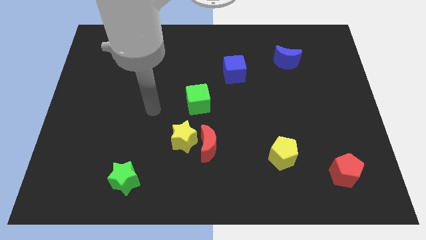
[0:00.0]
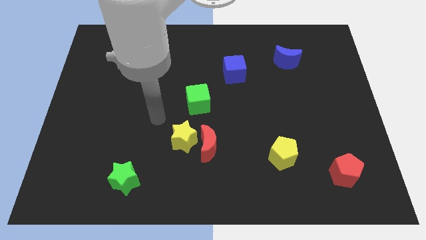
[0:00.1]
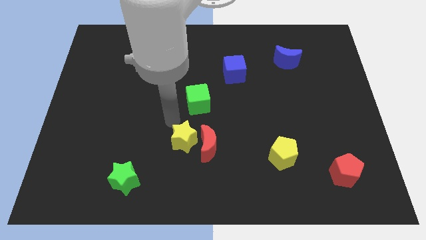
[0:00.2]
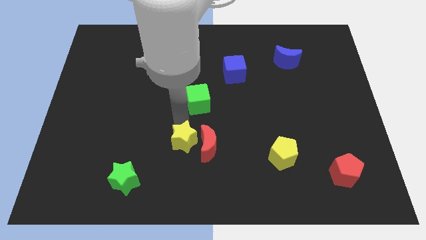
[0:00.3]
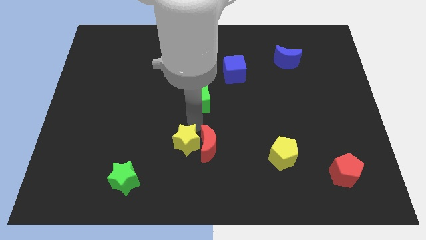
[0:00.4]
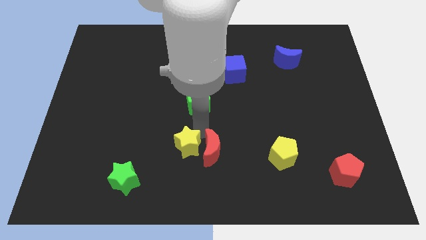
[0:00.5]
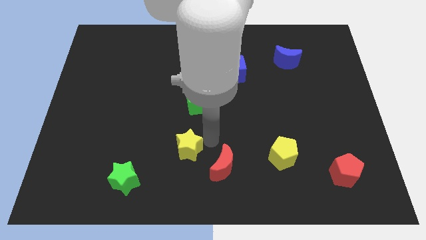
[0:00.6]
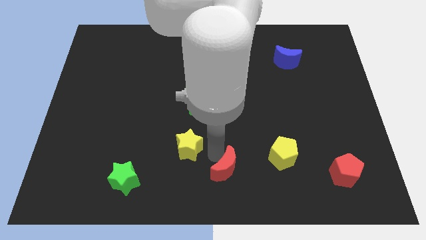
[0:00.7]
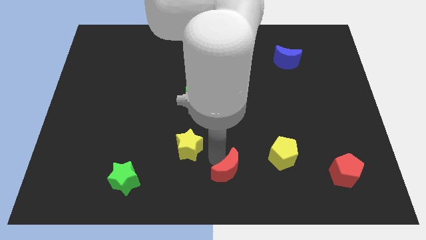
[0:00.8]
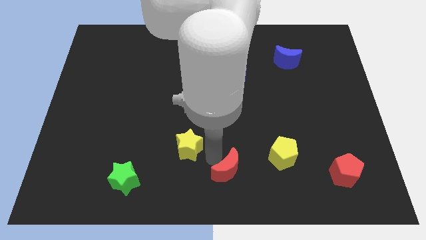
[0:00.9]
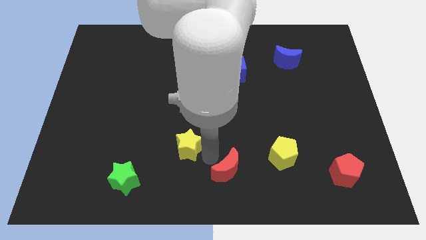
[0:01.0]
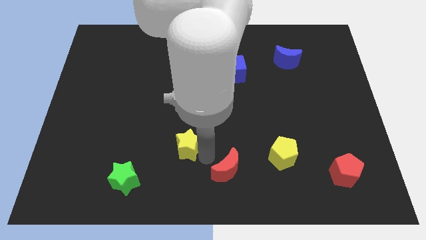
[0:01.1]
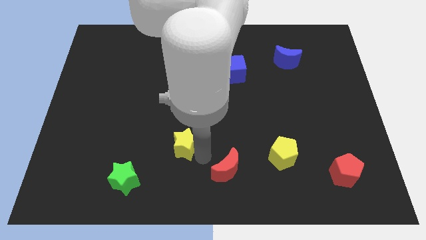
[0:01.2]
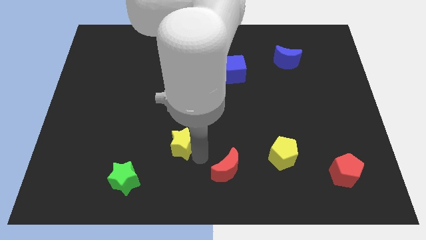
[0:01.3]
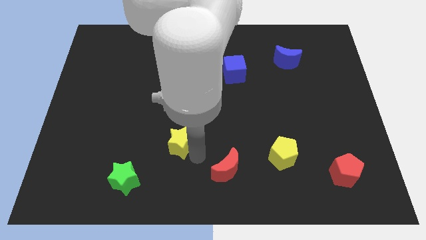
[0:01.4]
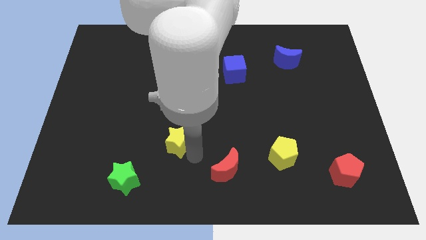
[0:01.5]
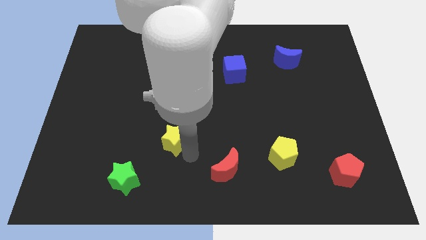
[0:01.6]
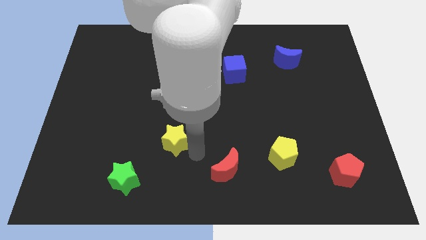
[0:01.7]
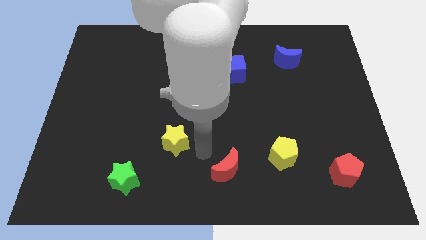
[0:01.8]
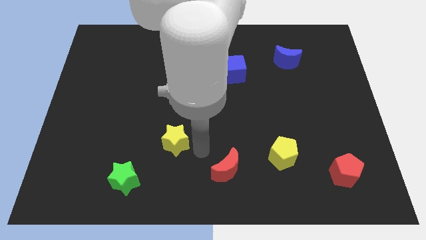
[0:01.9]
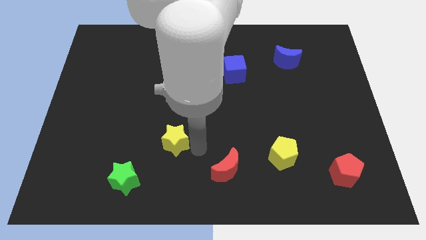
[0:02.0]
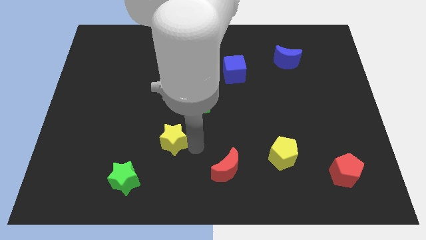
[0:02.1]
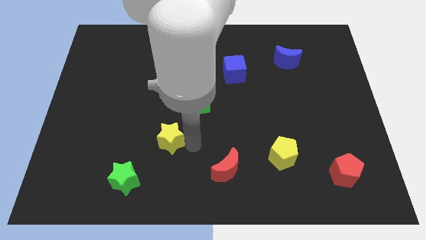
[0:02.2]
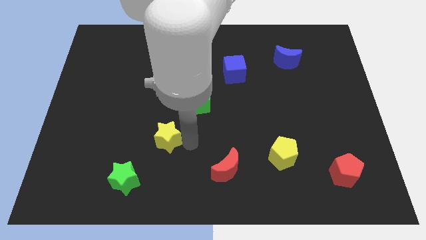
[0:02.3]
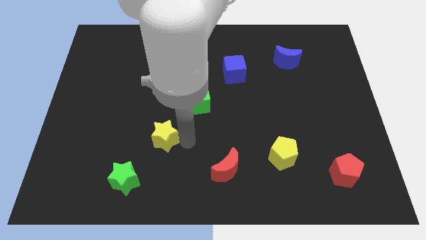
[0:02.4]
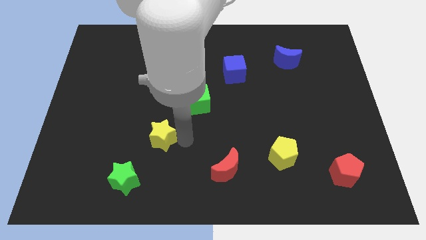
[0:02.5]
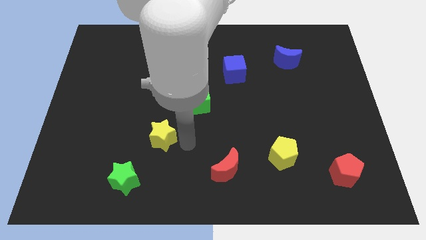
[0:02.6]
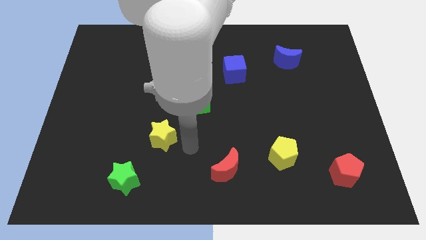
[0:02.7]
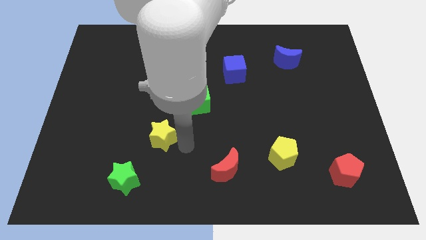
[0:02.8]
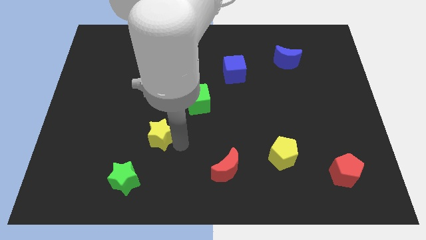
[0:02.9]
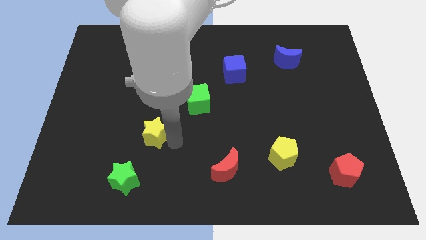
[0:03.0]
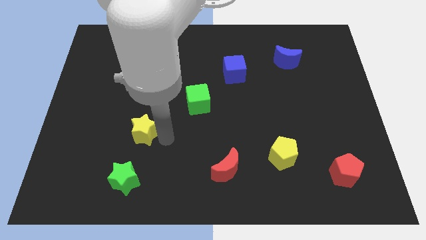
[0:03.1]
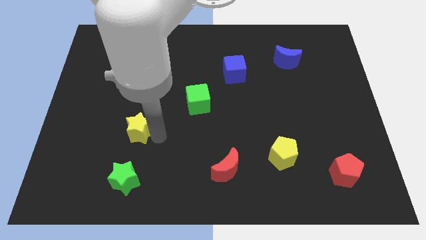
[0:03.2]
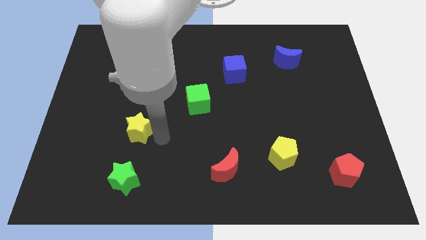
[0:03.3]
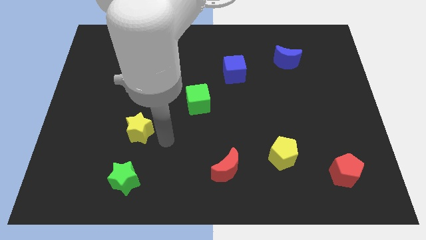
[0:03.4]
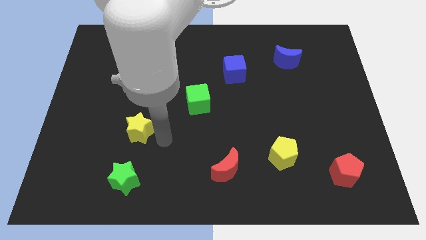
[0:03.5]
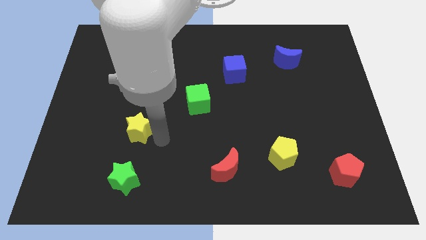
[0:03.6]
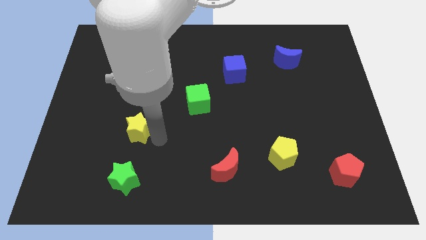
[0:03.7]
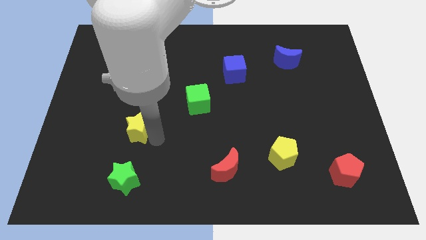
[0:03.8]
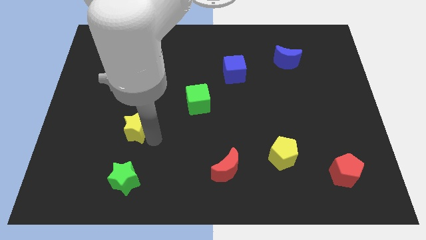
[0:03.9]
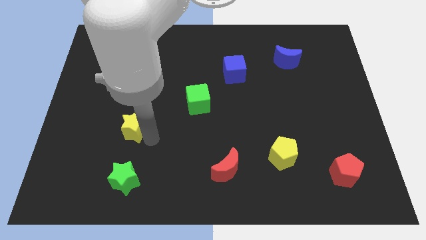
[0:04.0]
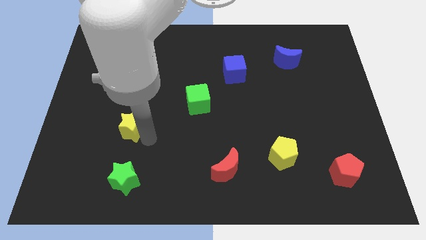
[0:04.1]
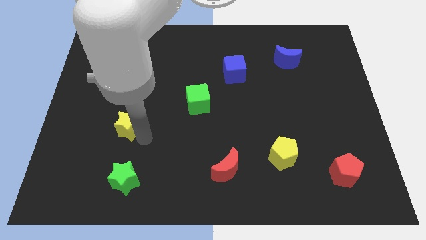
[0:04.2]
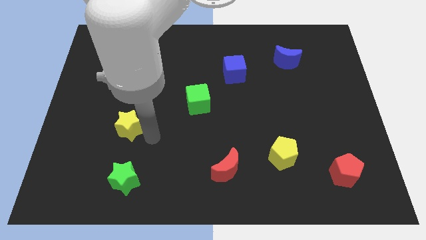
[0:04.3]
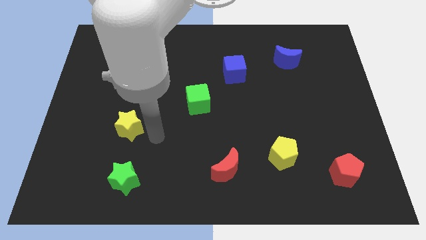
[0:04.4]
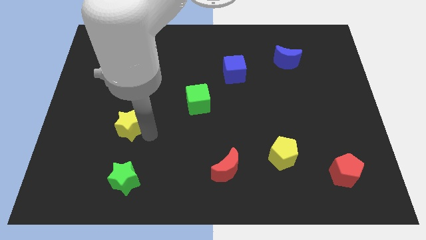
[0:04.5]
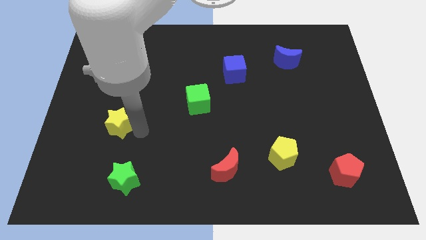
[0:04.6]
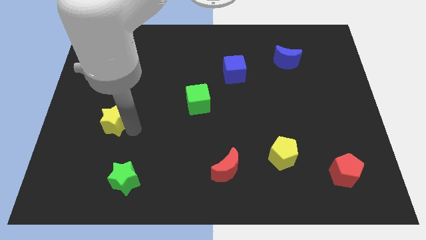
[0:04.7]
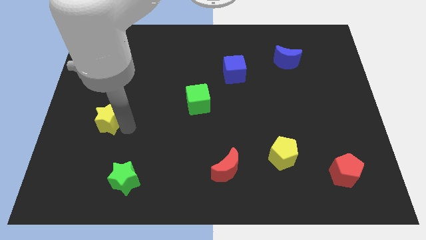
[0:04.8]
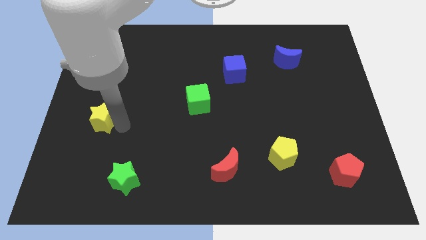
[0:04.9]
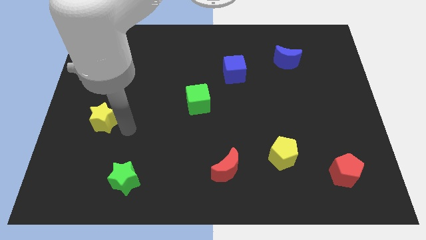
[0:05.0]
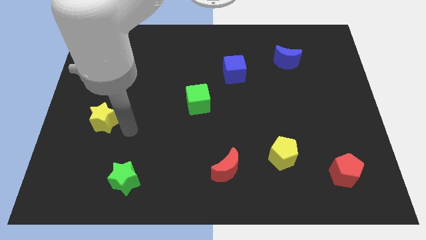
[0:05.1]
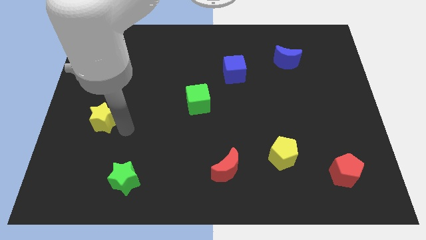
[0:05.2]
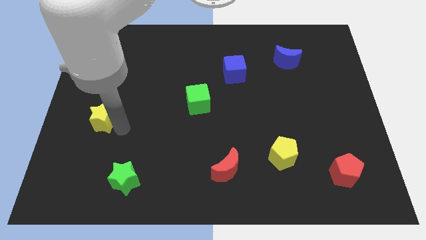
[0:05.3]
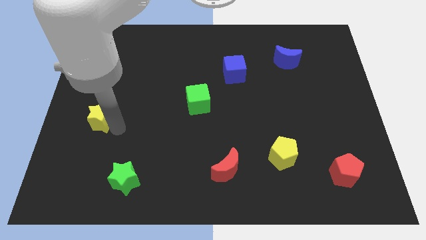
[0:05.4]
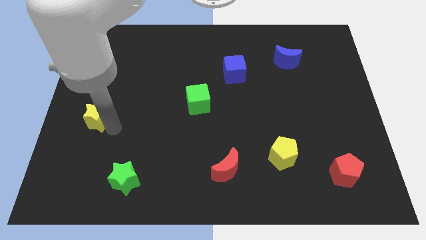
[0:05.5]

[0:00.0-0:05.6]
put the yellow star to the center left
